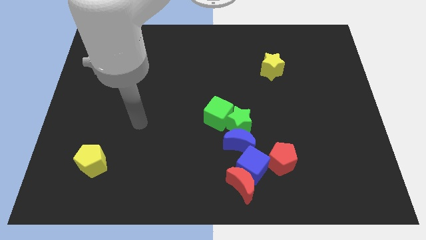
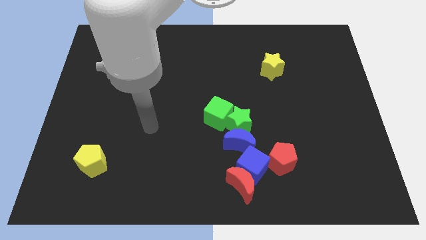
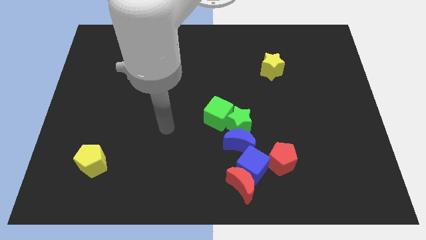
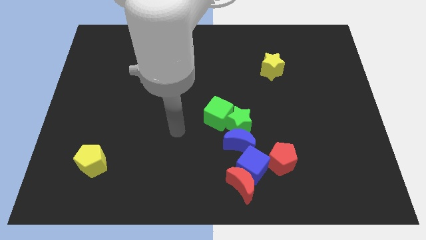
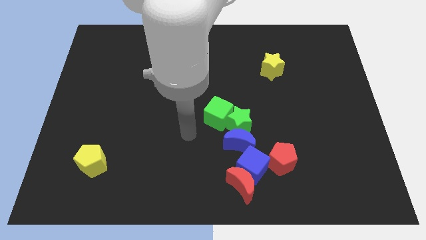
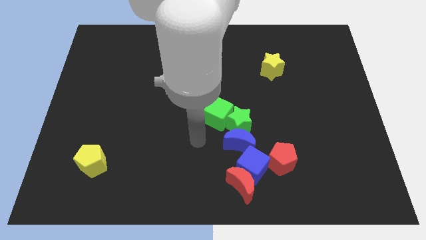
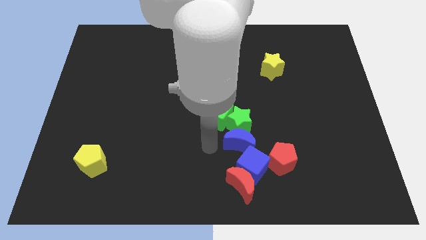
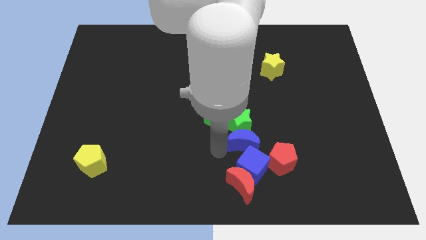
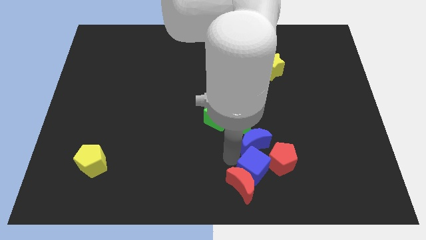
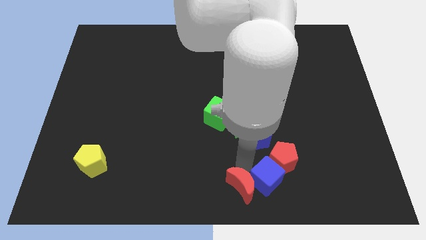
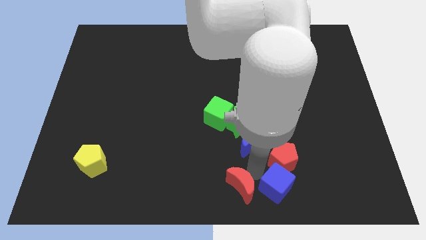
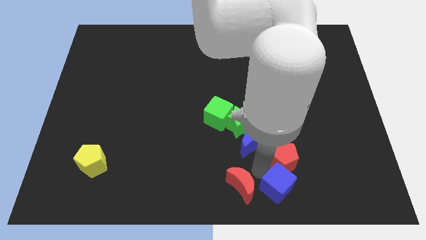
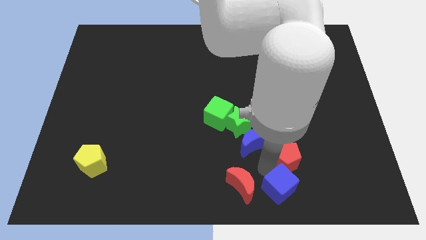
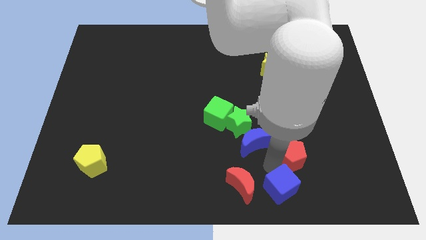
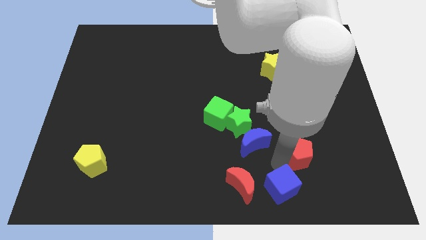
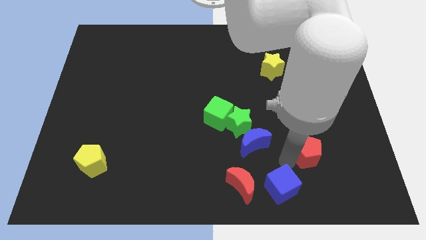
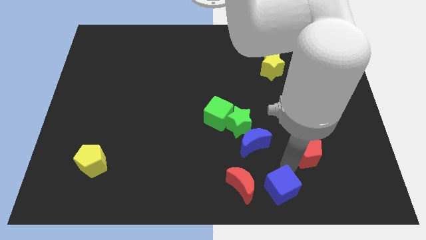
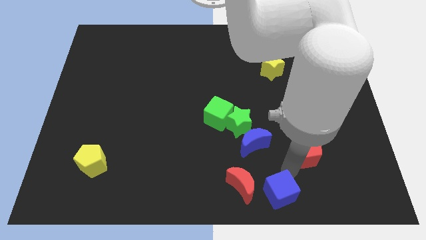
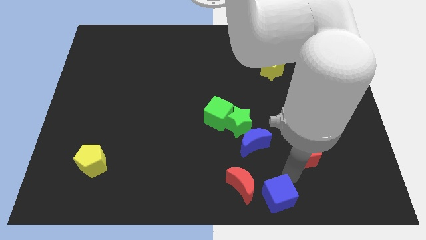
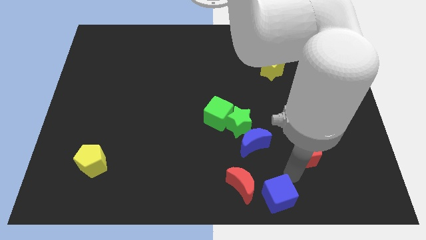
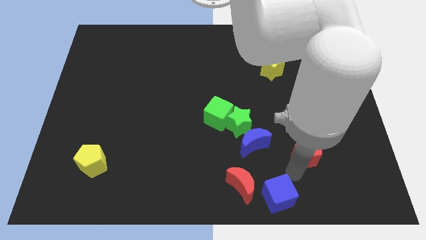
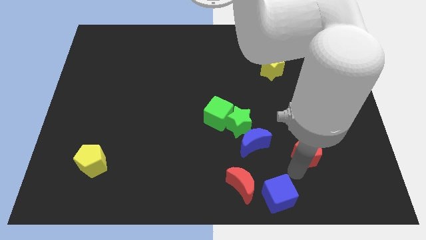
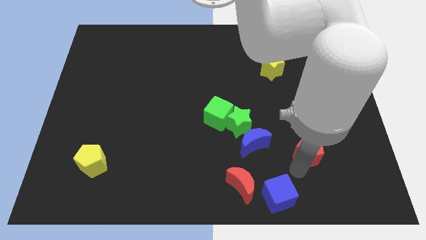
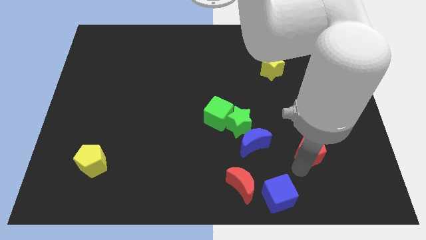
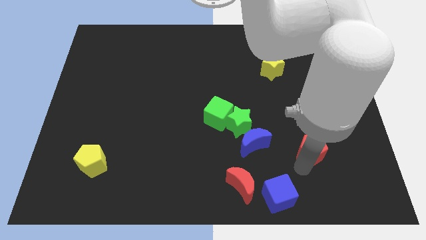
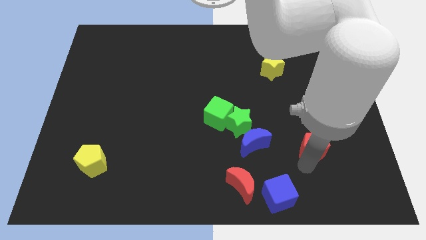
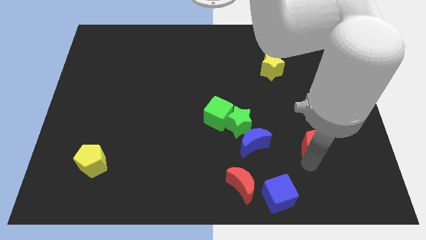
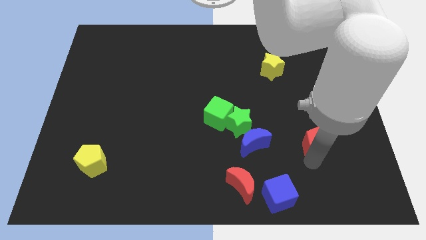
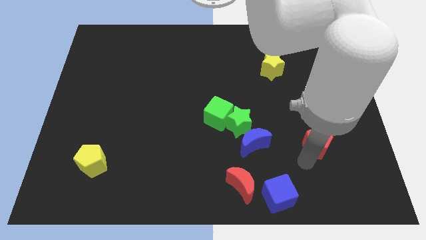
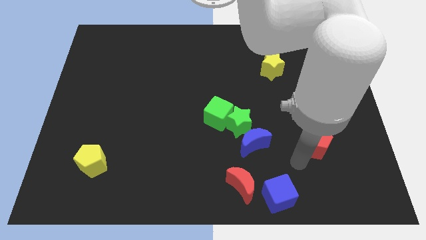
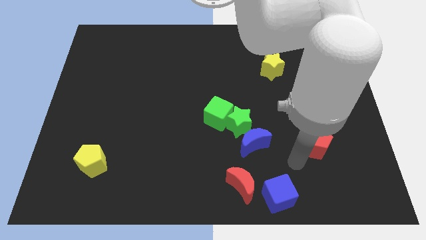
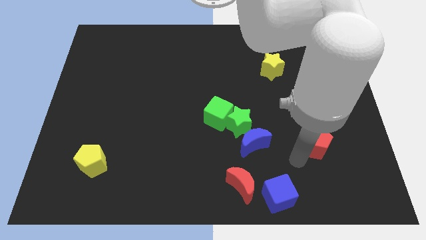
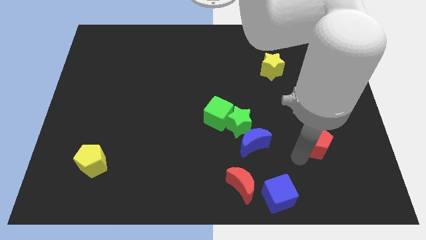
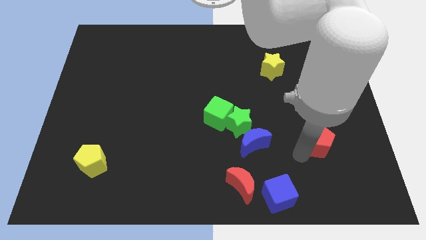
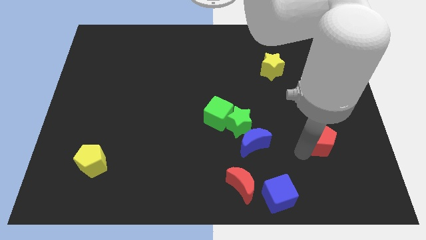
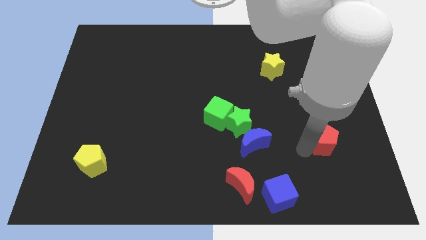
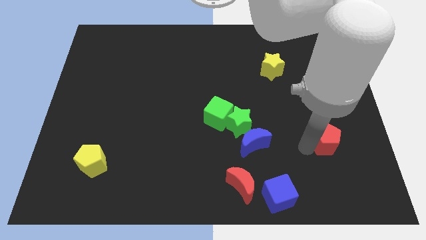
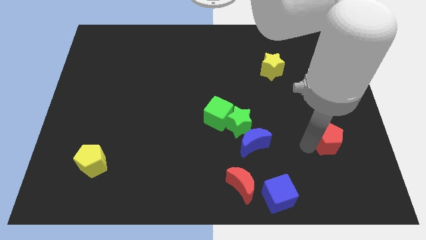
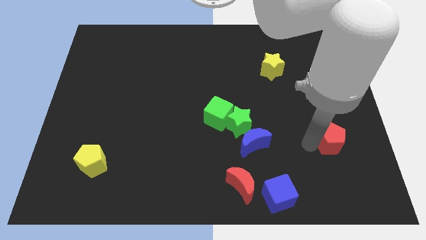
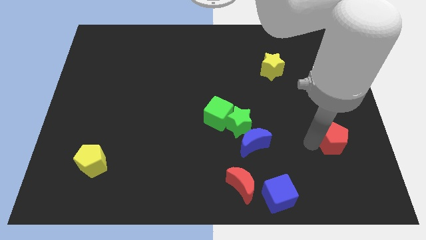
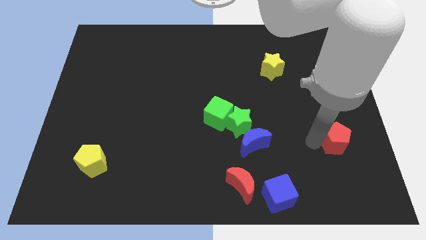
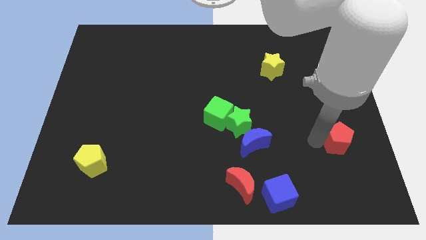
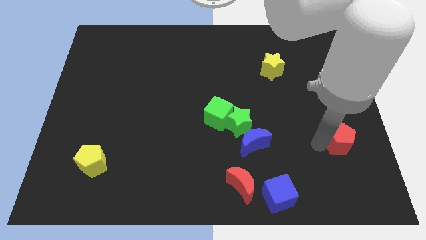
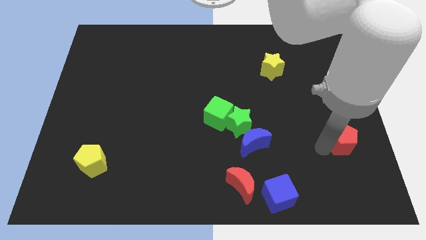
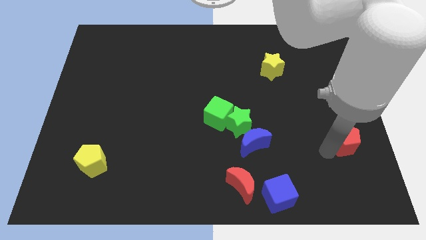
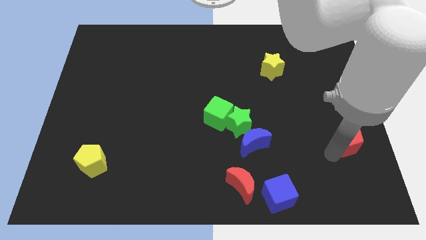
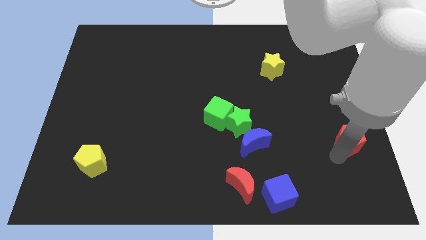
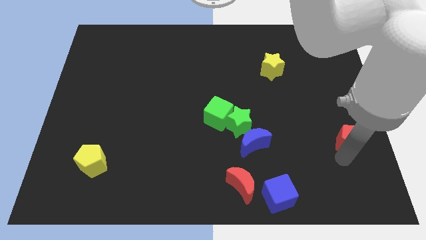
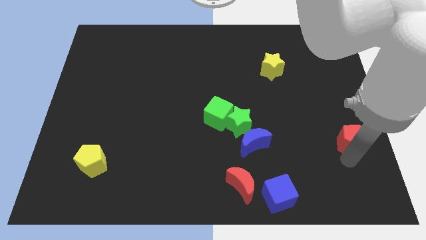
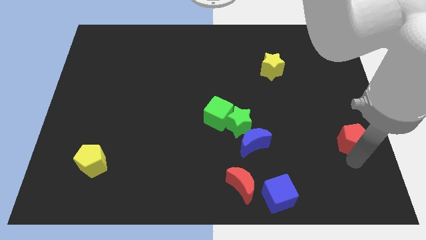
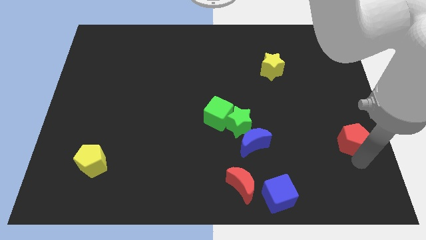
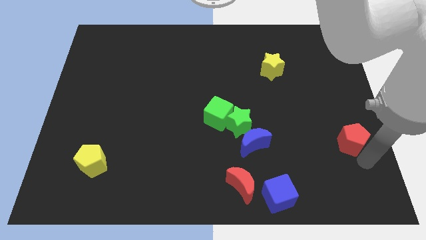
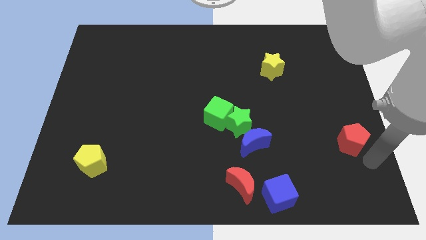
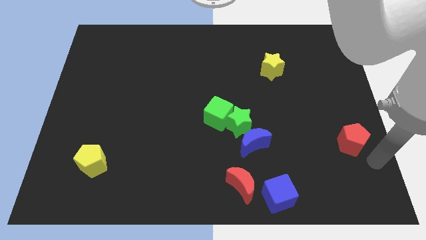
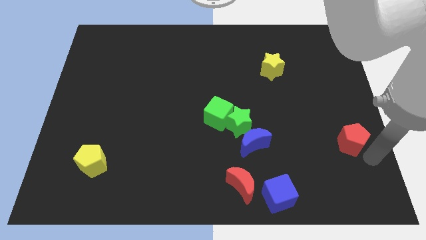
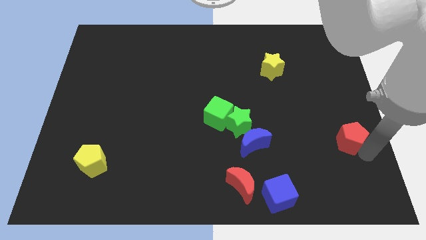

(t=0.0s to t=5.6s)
slide the red pentagon to the right side of the board

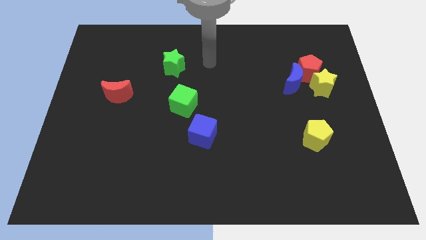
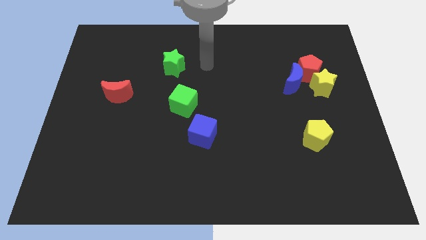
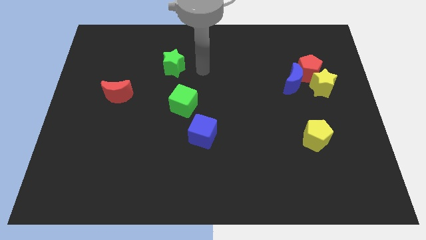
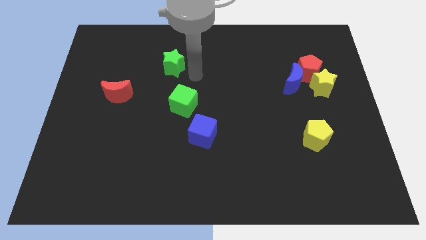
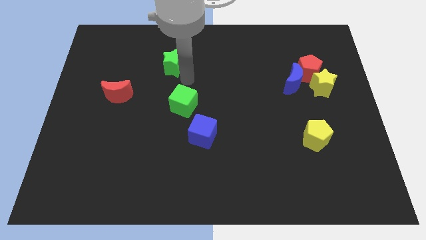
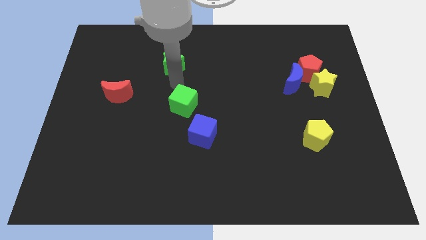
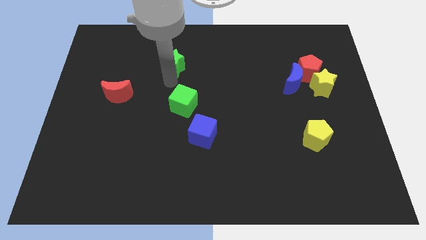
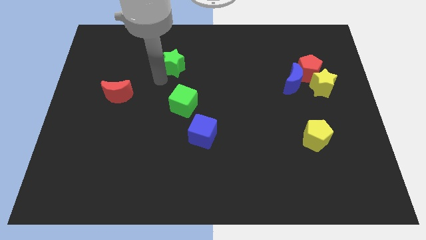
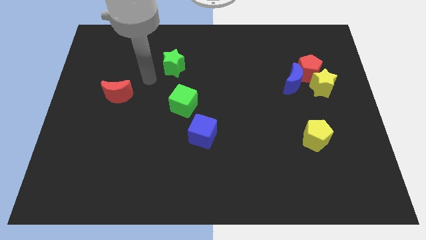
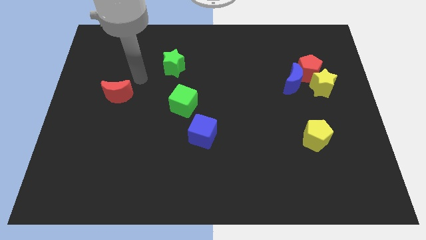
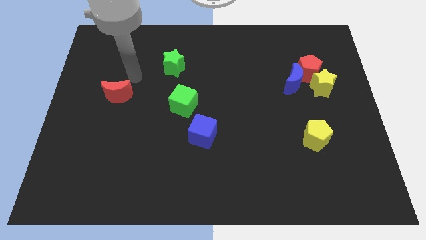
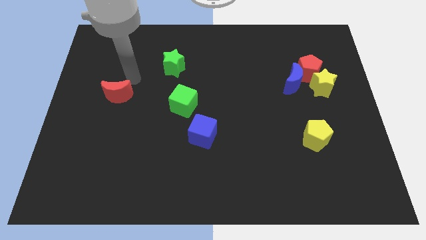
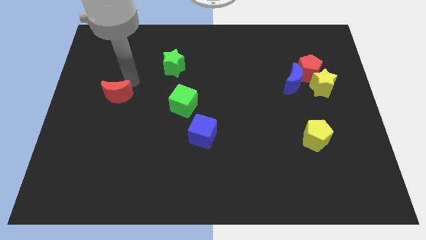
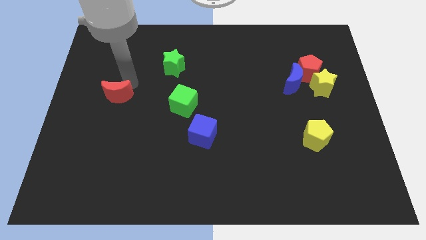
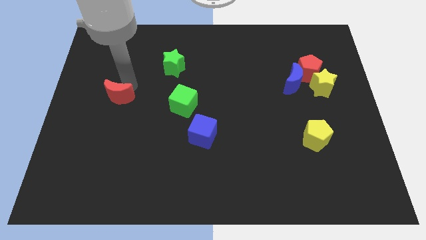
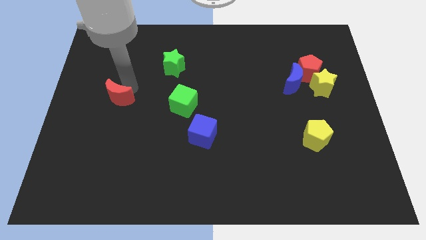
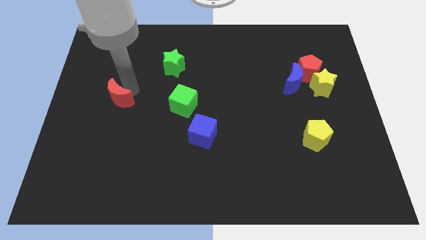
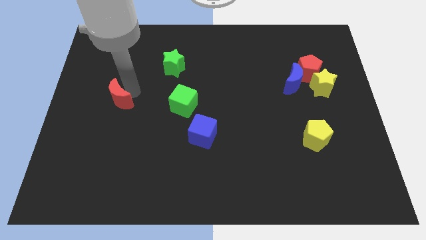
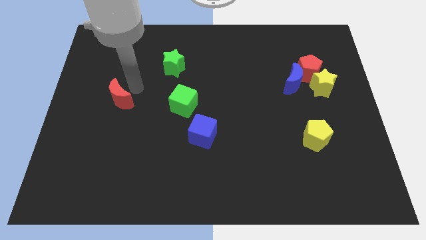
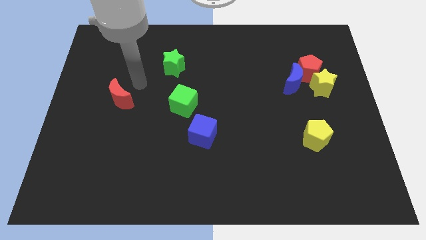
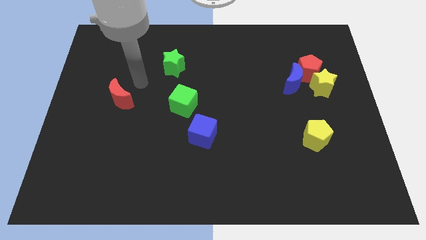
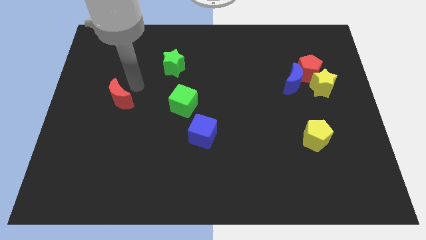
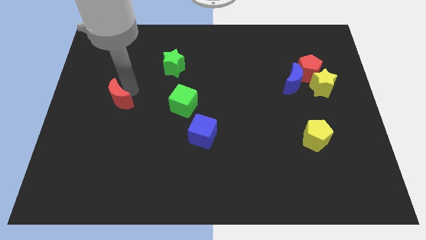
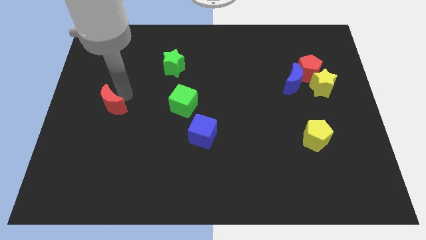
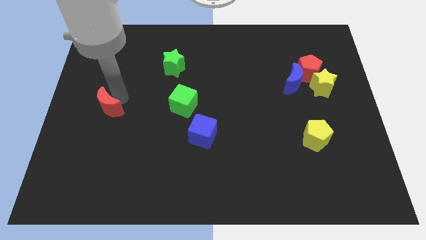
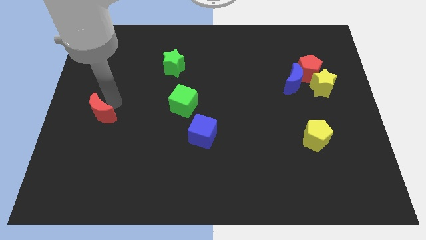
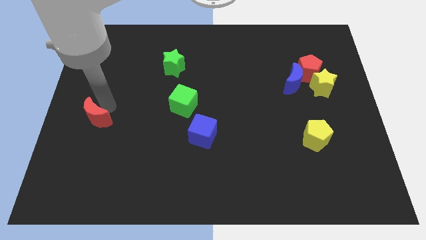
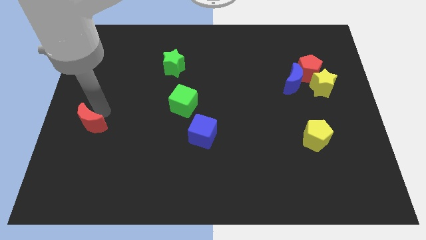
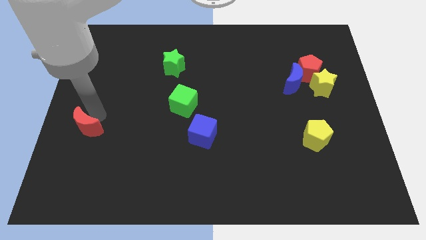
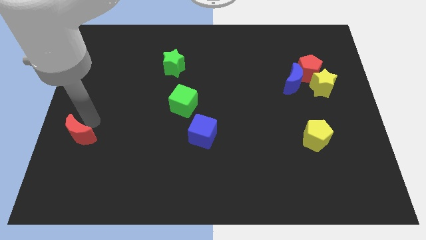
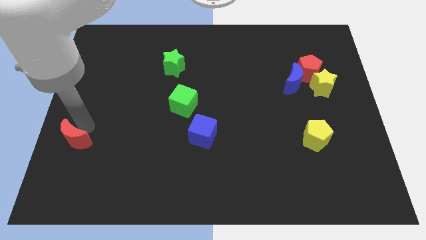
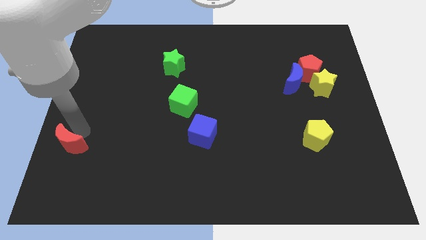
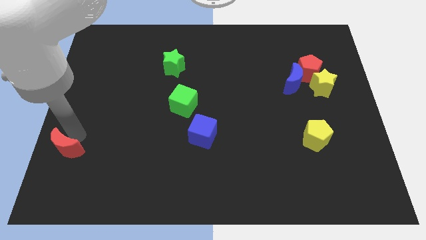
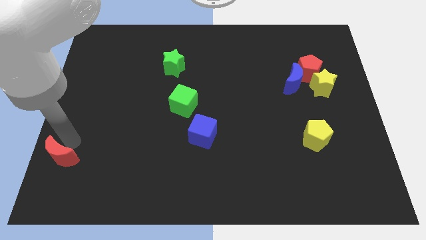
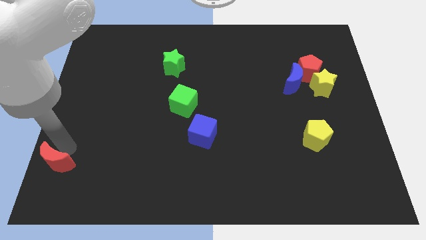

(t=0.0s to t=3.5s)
push the red moon to the bottom left
